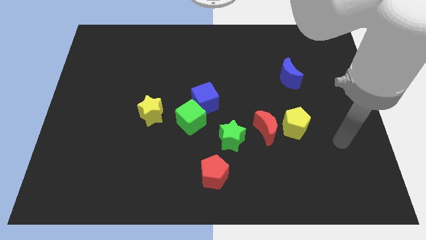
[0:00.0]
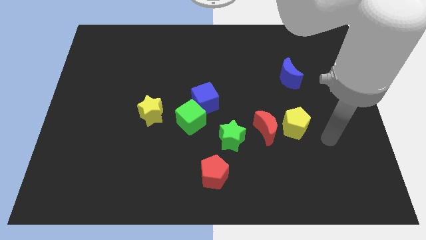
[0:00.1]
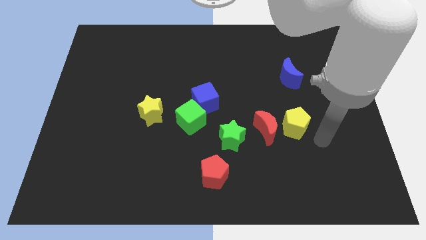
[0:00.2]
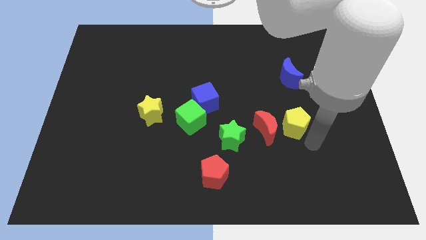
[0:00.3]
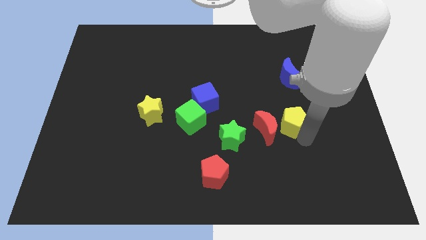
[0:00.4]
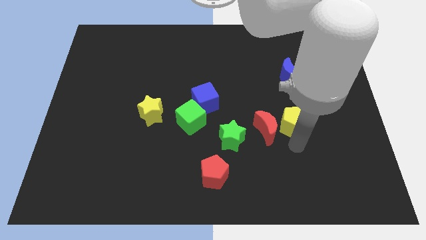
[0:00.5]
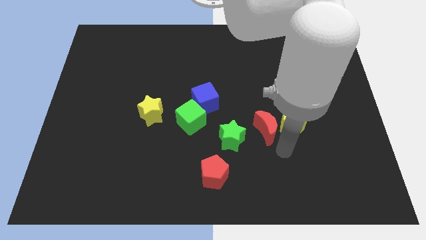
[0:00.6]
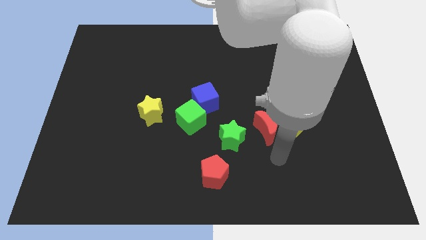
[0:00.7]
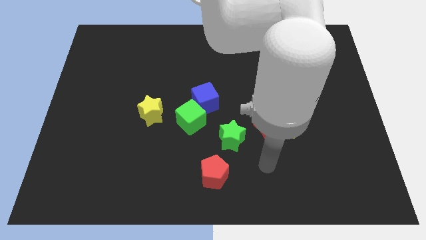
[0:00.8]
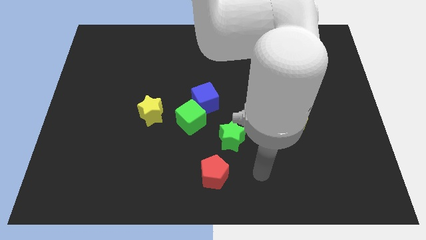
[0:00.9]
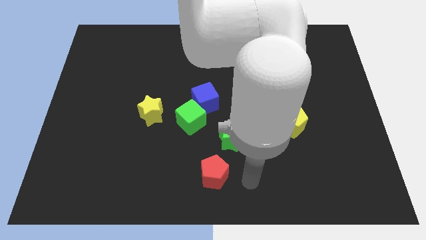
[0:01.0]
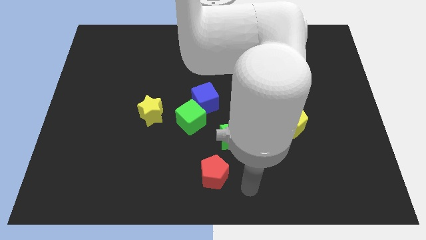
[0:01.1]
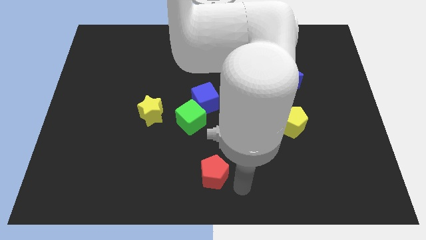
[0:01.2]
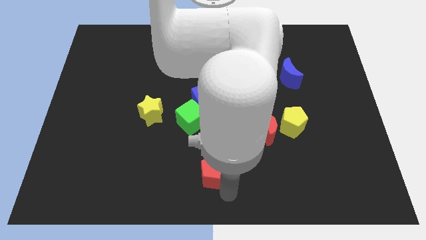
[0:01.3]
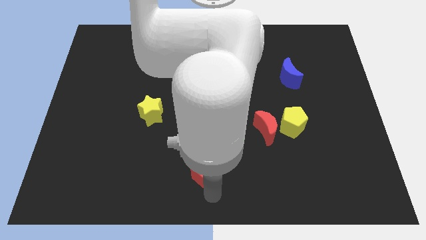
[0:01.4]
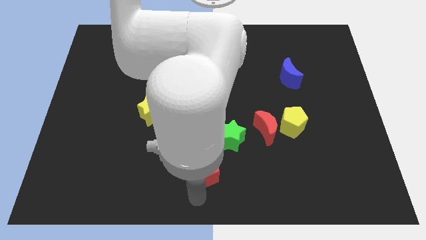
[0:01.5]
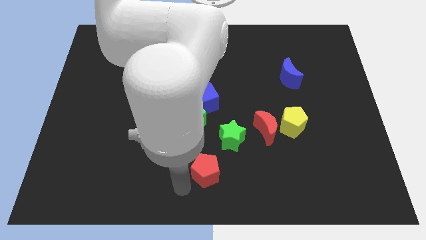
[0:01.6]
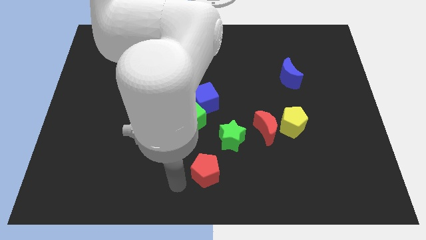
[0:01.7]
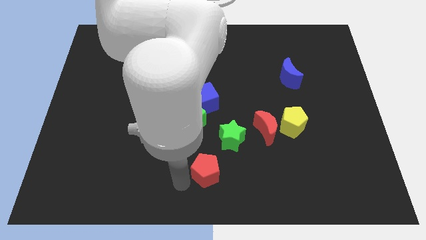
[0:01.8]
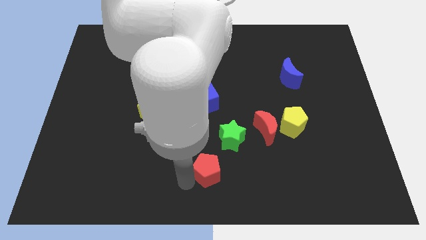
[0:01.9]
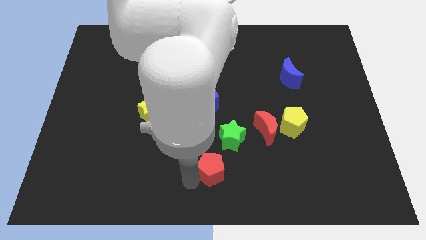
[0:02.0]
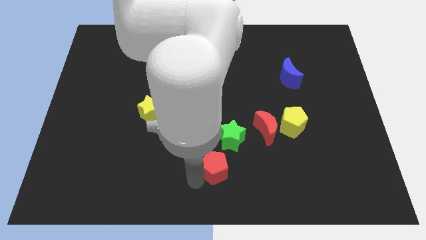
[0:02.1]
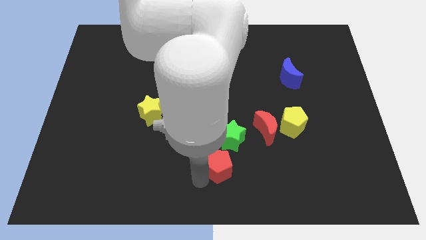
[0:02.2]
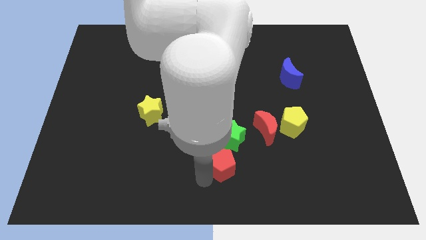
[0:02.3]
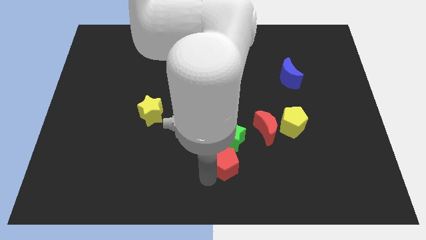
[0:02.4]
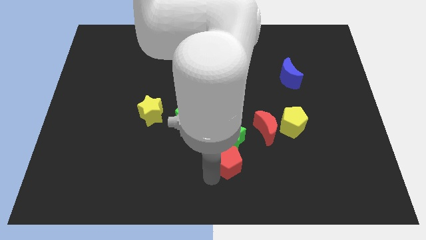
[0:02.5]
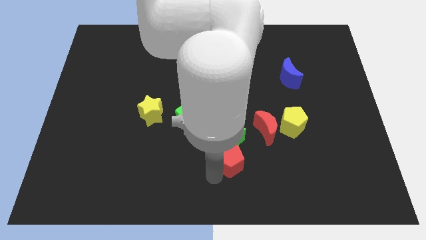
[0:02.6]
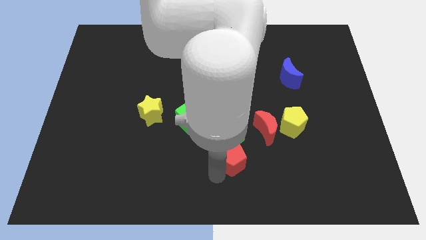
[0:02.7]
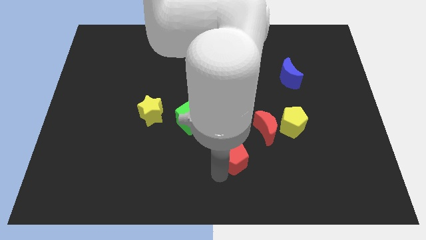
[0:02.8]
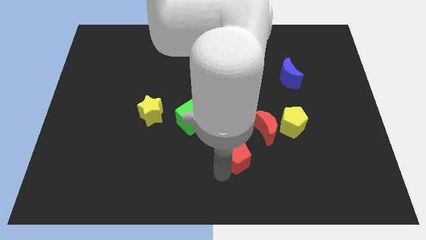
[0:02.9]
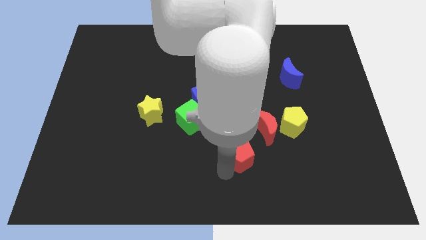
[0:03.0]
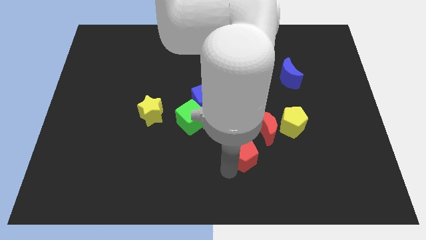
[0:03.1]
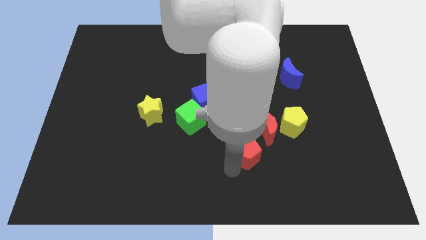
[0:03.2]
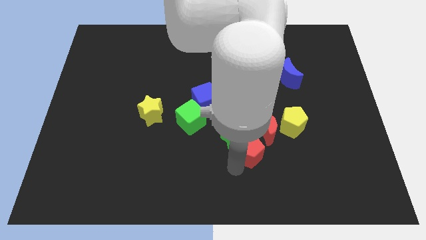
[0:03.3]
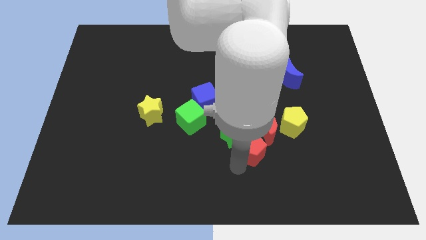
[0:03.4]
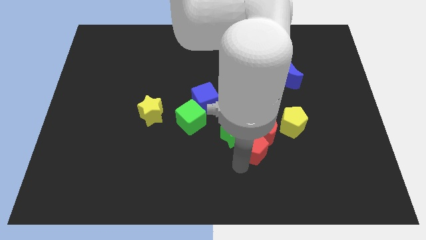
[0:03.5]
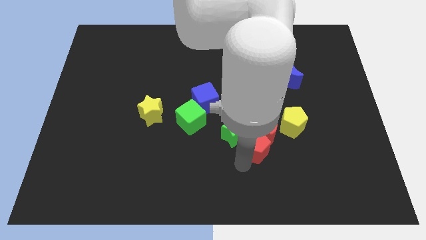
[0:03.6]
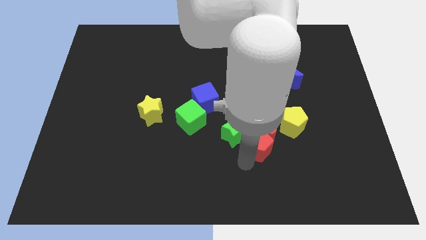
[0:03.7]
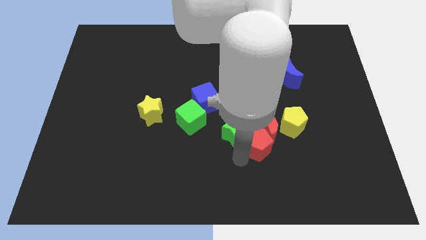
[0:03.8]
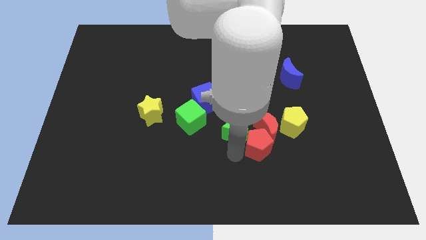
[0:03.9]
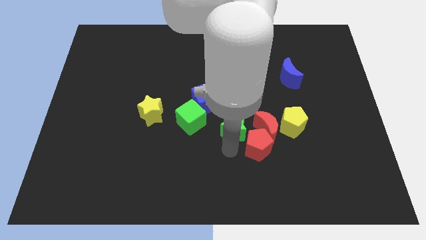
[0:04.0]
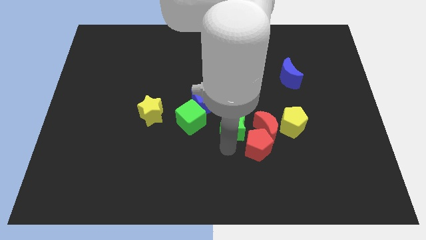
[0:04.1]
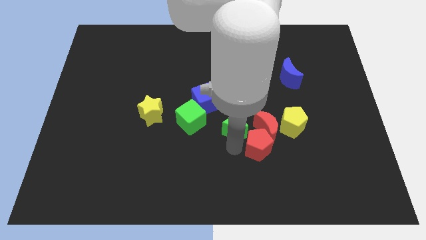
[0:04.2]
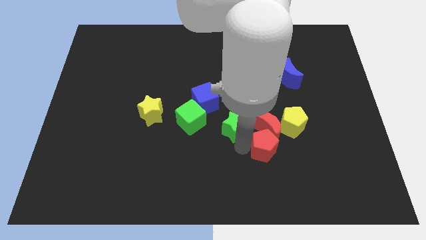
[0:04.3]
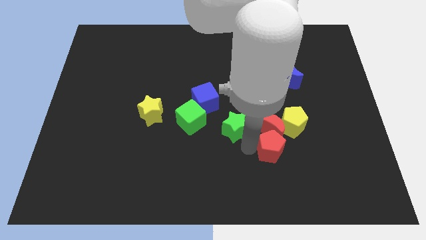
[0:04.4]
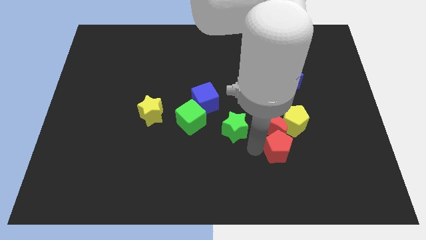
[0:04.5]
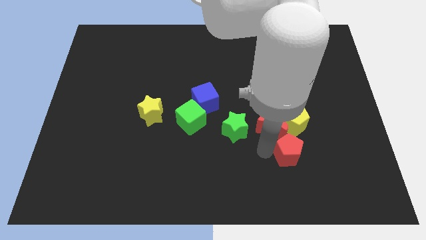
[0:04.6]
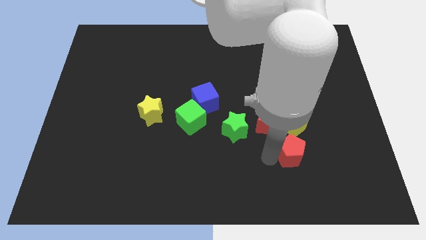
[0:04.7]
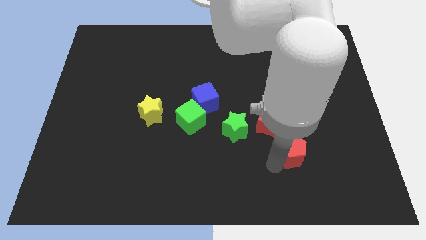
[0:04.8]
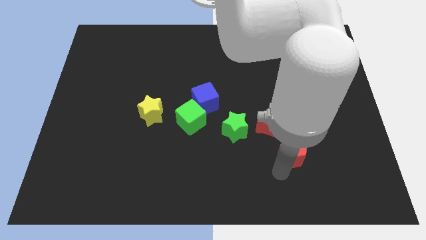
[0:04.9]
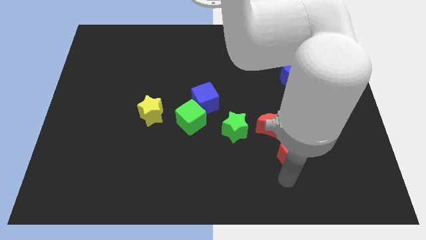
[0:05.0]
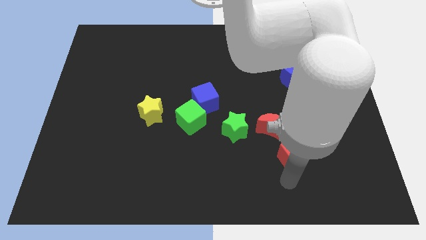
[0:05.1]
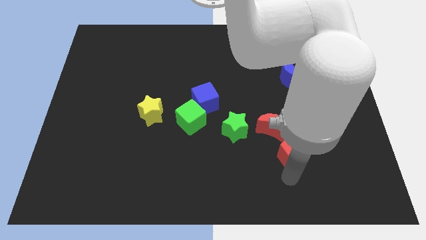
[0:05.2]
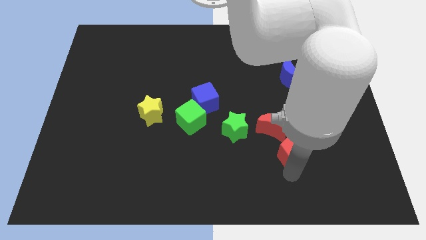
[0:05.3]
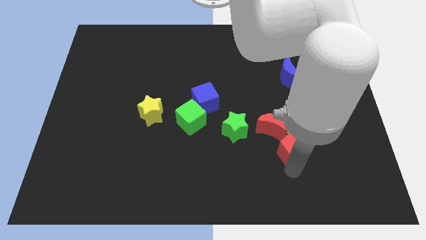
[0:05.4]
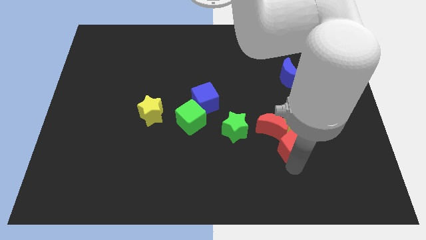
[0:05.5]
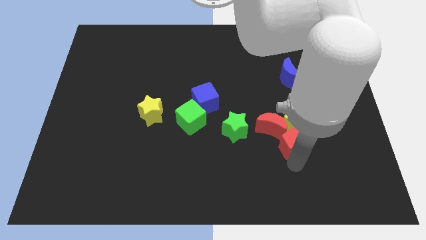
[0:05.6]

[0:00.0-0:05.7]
push the red pentagon to the yellow pentagon

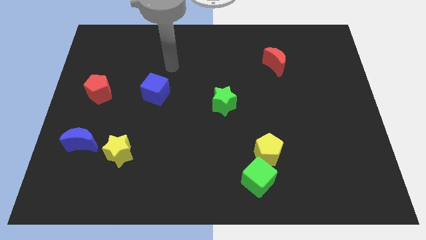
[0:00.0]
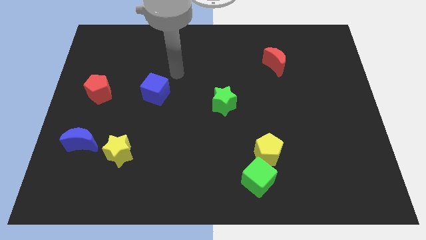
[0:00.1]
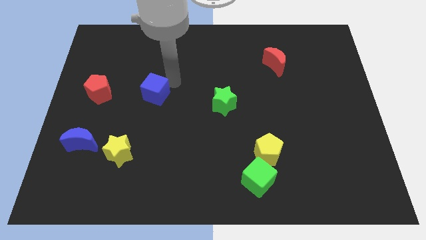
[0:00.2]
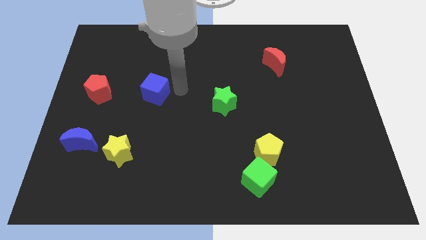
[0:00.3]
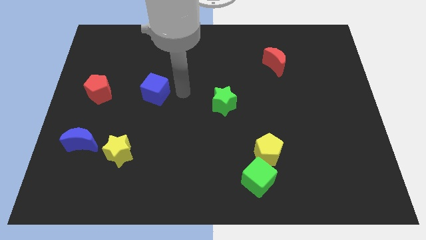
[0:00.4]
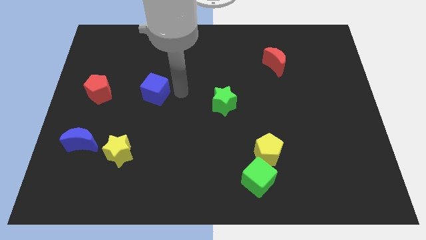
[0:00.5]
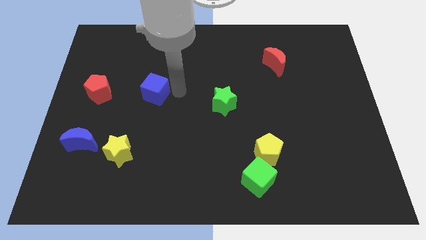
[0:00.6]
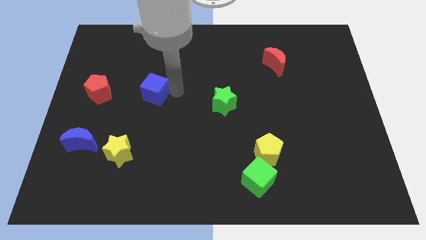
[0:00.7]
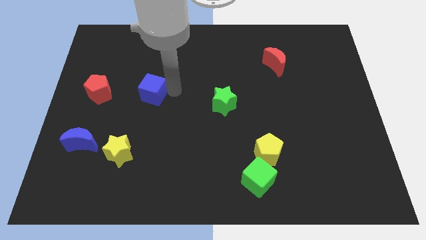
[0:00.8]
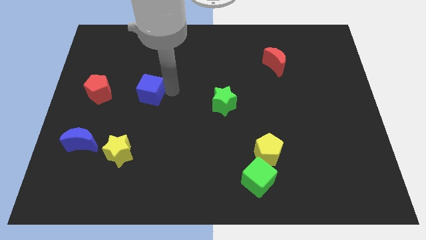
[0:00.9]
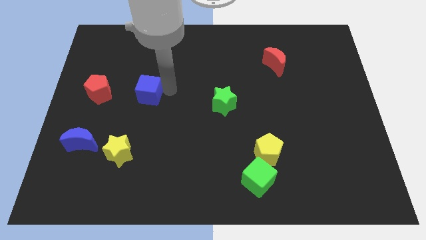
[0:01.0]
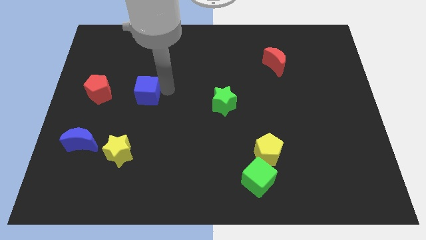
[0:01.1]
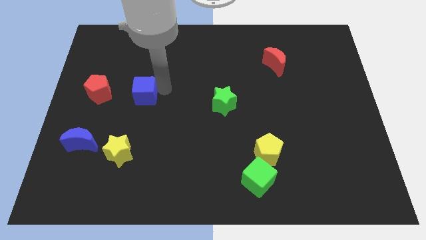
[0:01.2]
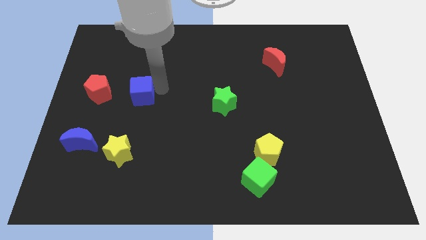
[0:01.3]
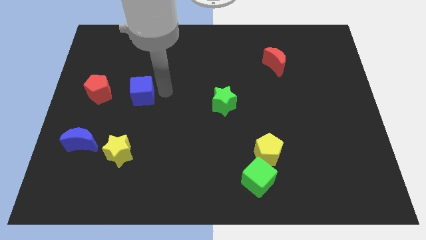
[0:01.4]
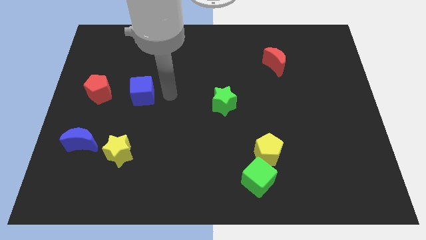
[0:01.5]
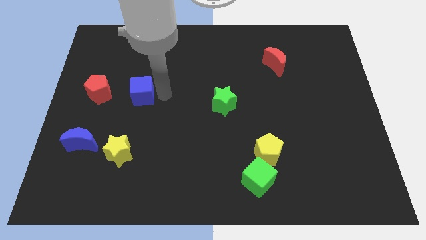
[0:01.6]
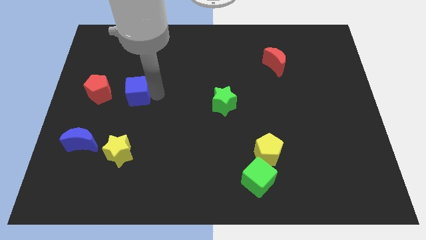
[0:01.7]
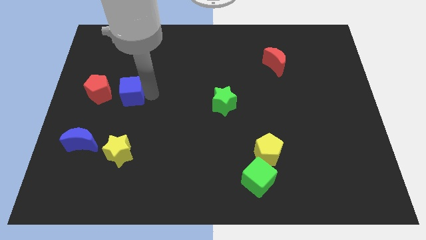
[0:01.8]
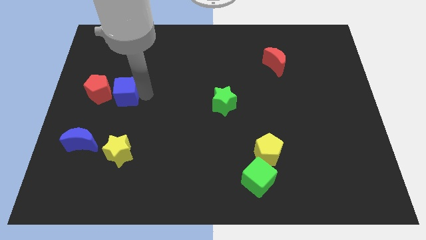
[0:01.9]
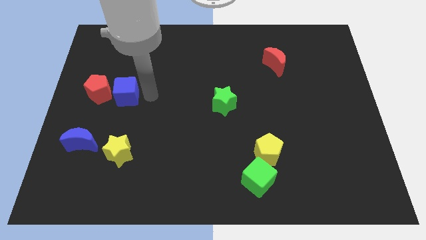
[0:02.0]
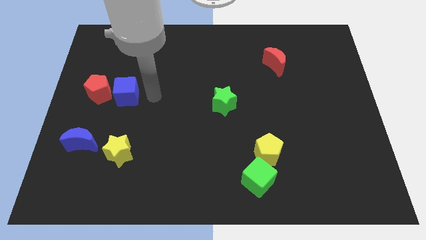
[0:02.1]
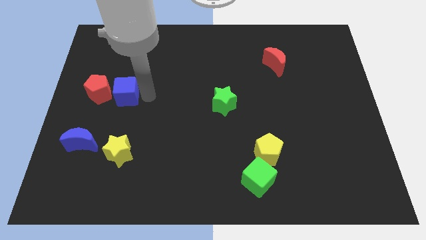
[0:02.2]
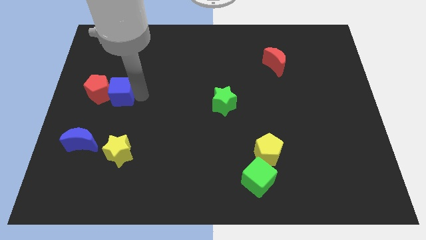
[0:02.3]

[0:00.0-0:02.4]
push the blue cube close to the red pentagon
